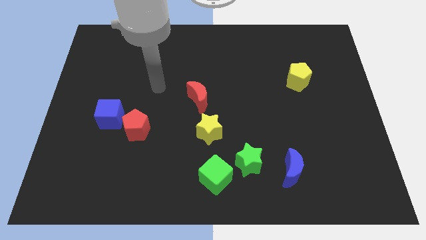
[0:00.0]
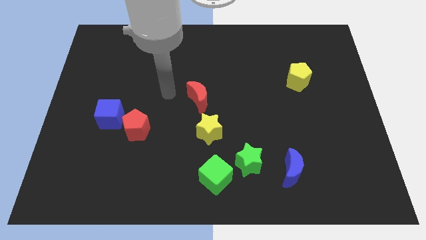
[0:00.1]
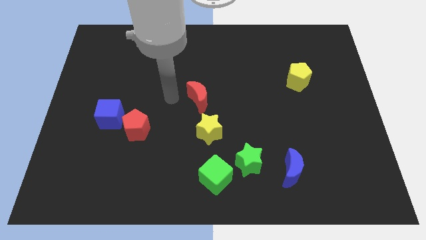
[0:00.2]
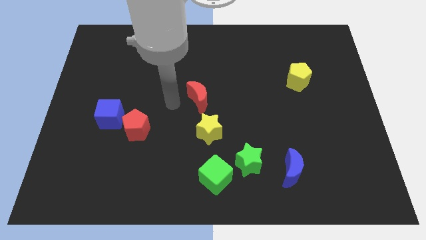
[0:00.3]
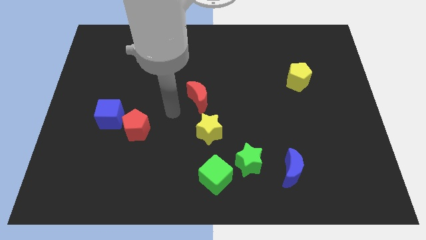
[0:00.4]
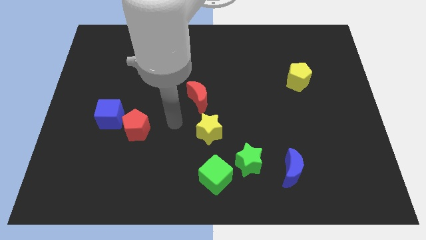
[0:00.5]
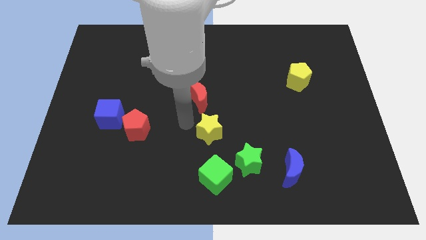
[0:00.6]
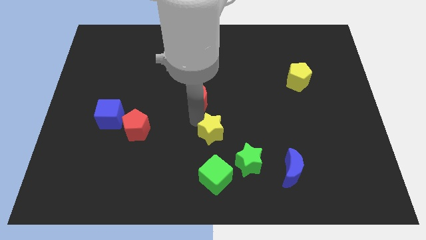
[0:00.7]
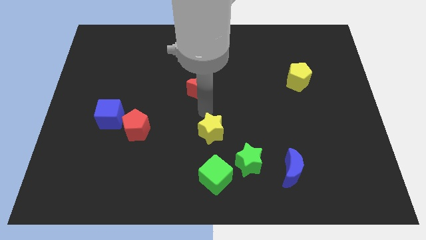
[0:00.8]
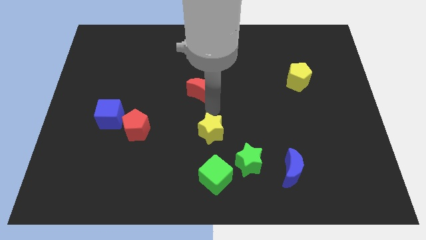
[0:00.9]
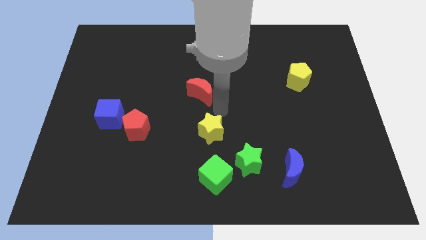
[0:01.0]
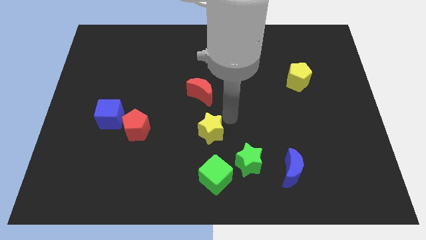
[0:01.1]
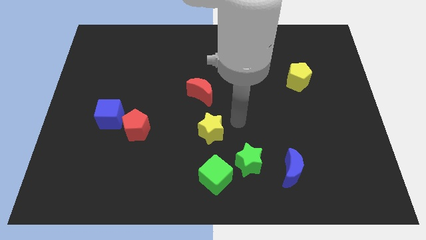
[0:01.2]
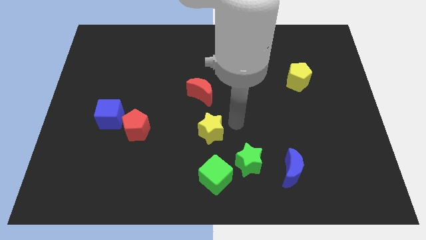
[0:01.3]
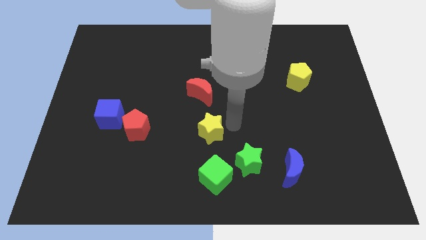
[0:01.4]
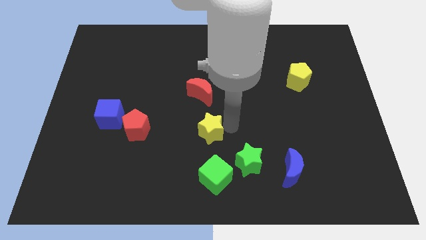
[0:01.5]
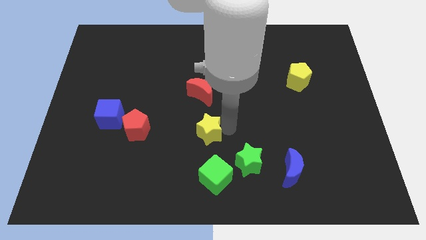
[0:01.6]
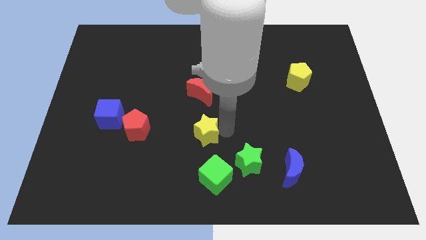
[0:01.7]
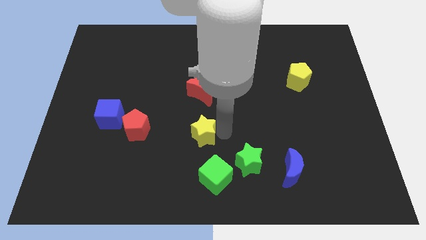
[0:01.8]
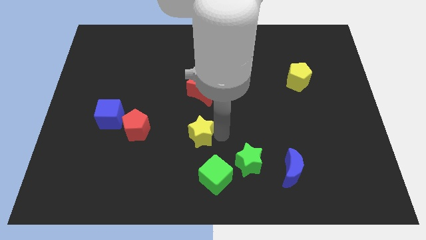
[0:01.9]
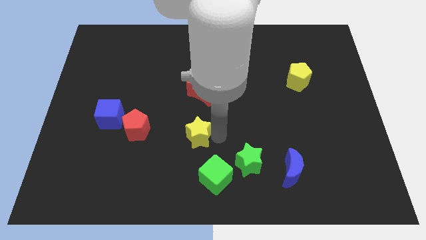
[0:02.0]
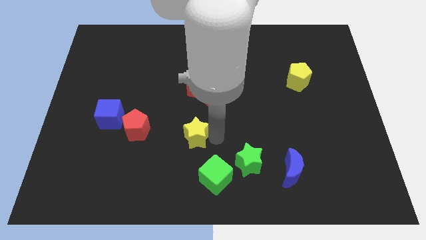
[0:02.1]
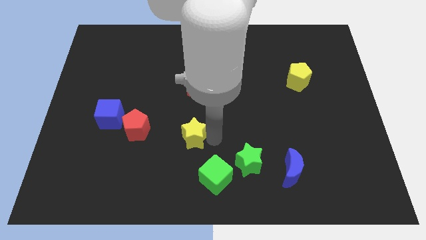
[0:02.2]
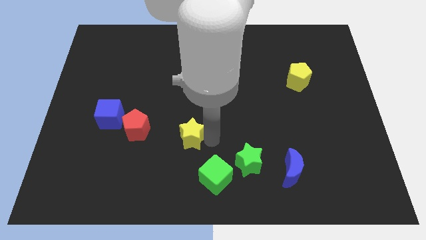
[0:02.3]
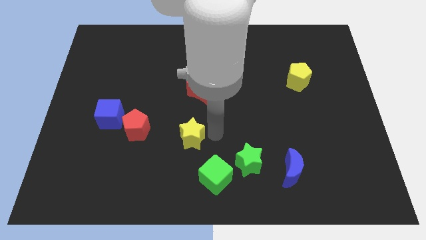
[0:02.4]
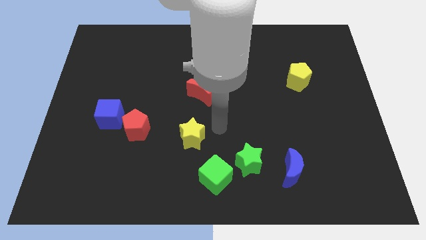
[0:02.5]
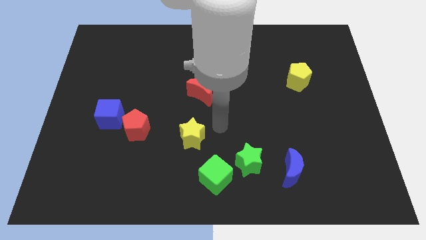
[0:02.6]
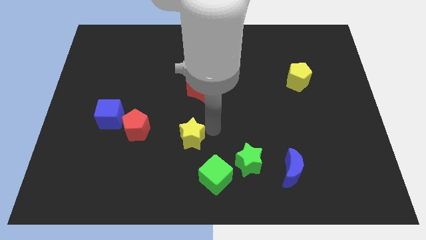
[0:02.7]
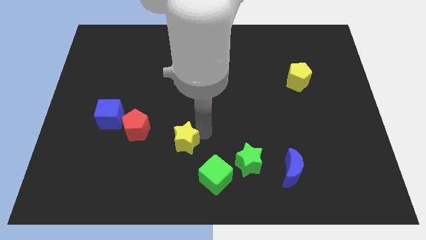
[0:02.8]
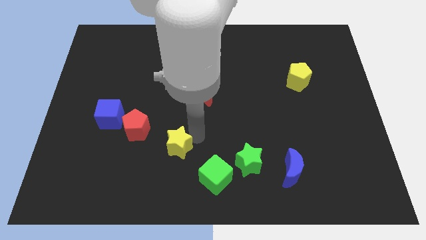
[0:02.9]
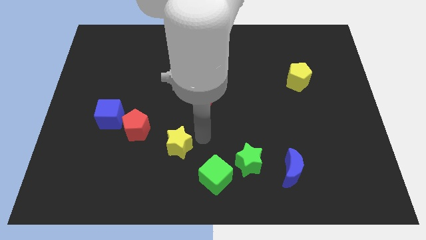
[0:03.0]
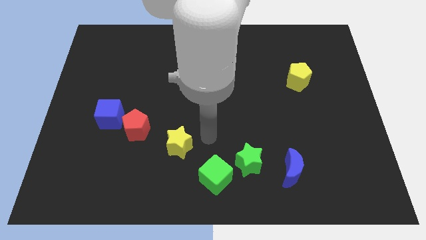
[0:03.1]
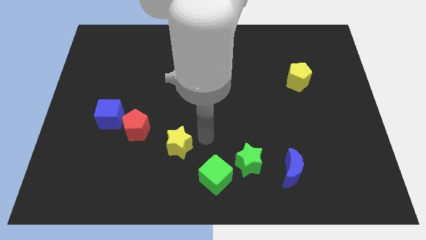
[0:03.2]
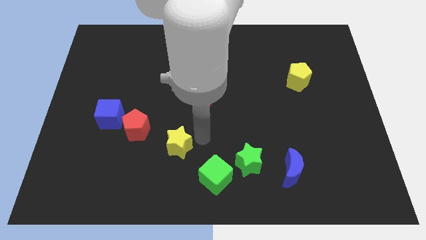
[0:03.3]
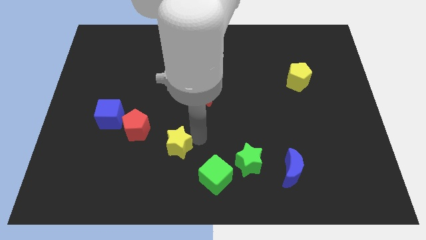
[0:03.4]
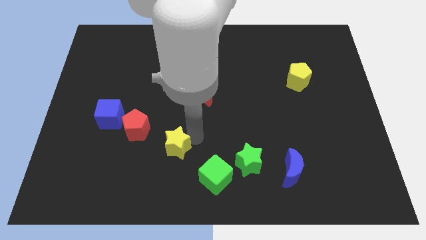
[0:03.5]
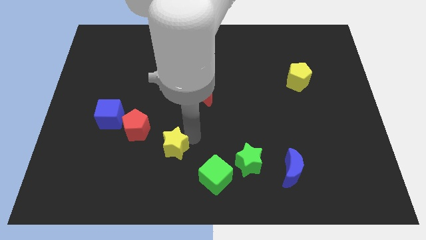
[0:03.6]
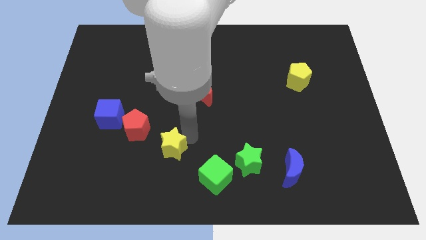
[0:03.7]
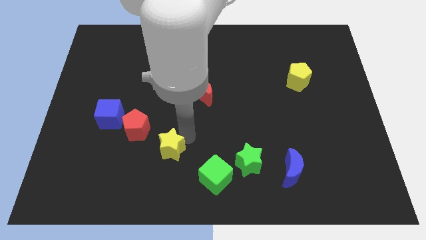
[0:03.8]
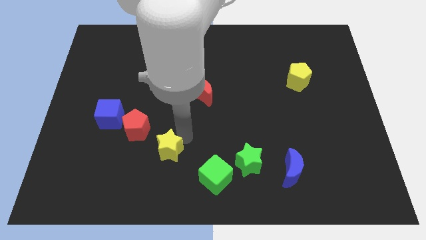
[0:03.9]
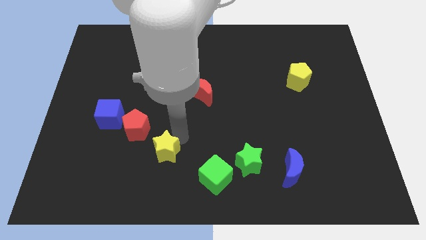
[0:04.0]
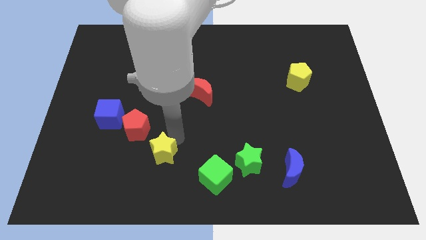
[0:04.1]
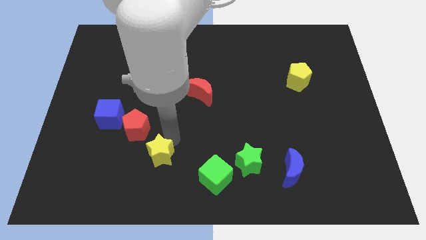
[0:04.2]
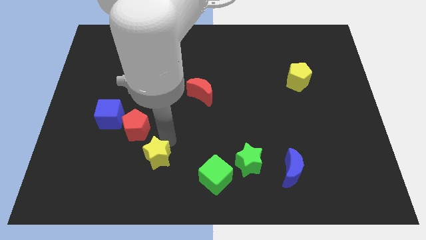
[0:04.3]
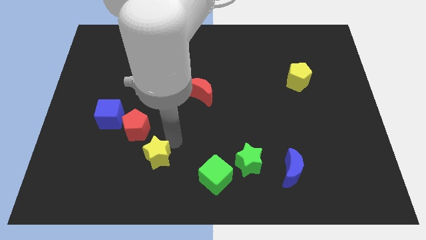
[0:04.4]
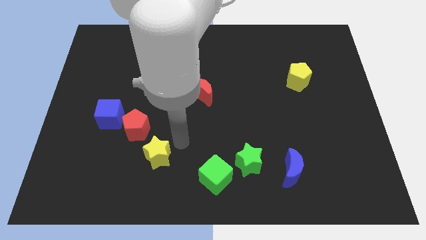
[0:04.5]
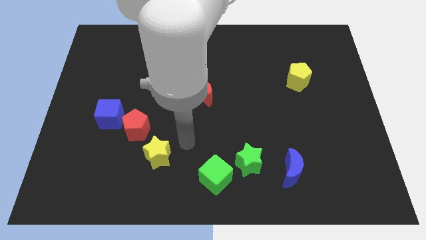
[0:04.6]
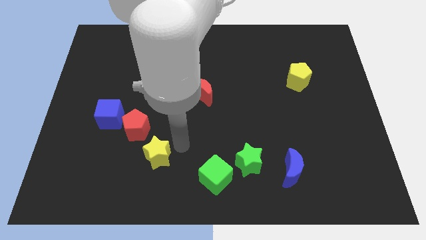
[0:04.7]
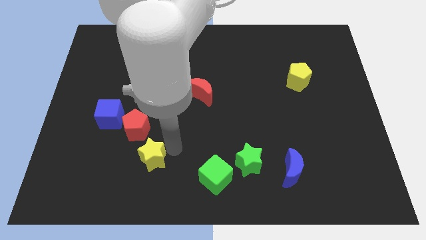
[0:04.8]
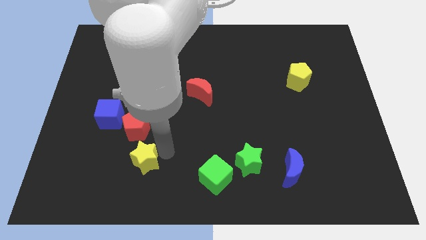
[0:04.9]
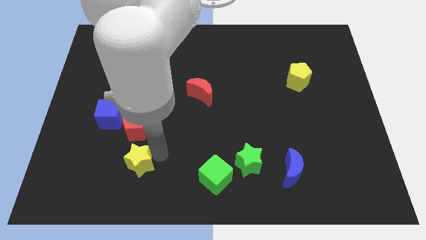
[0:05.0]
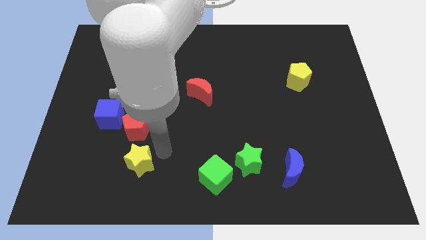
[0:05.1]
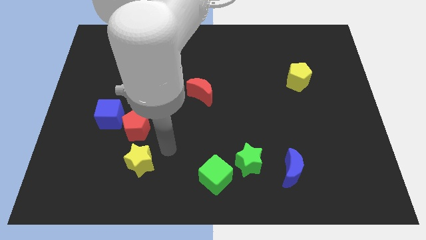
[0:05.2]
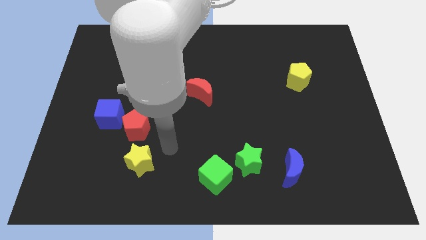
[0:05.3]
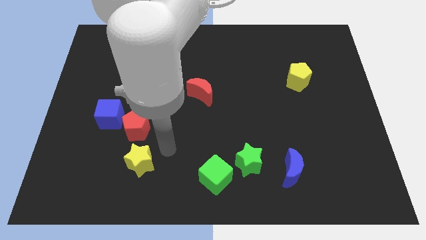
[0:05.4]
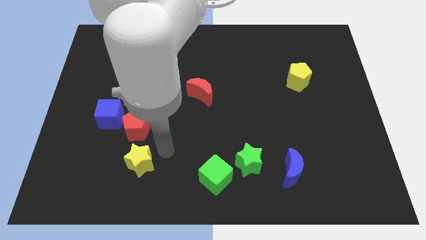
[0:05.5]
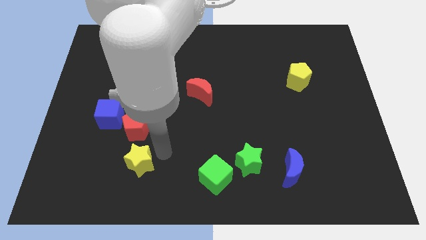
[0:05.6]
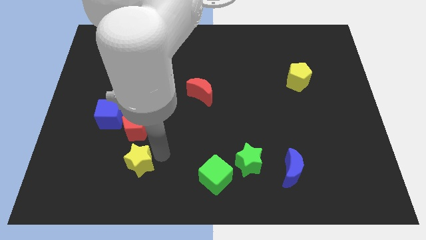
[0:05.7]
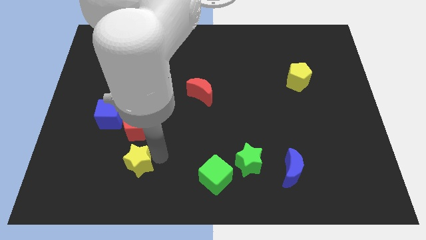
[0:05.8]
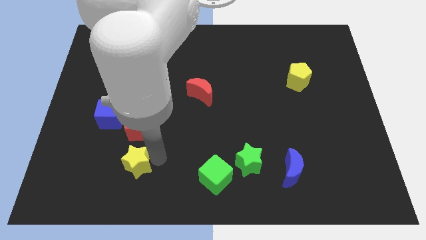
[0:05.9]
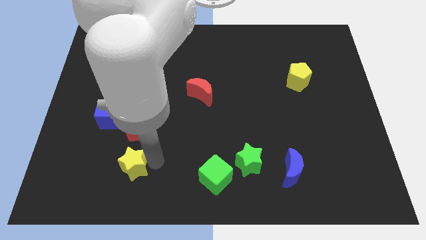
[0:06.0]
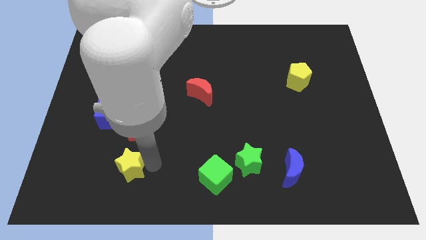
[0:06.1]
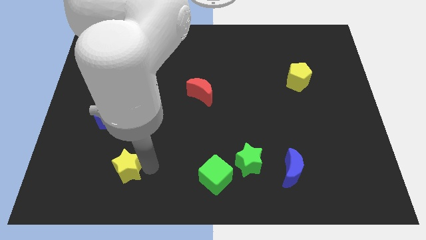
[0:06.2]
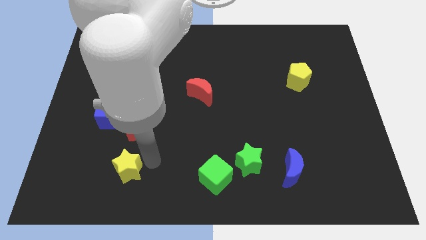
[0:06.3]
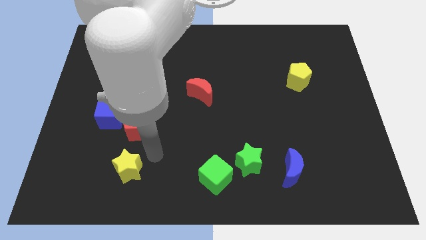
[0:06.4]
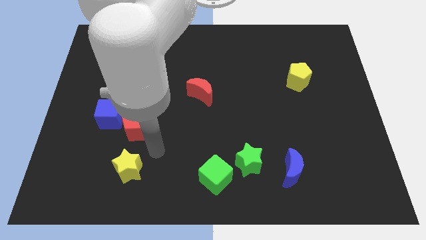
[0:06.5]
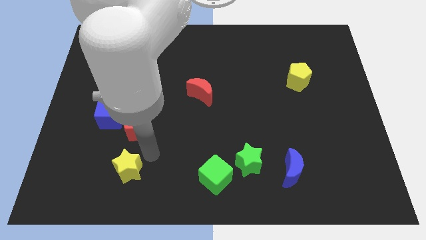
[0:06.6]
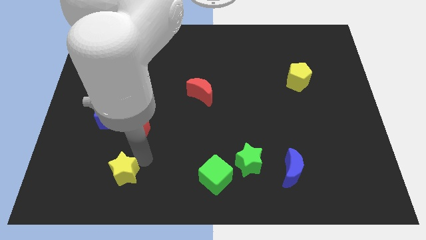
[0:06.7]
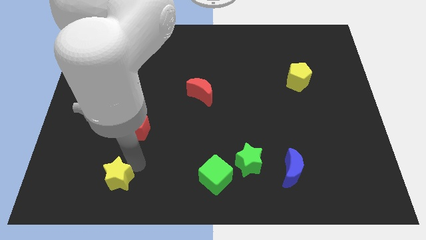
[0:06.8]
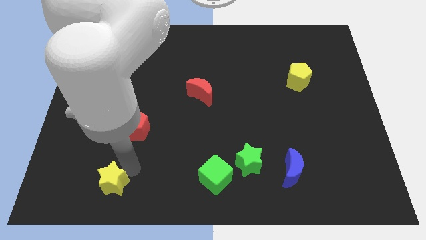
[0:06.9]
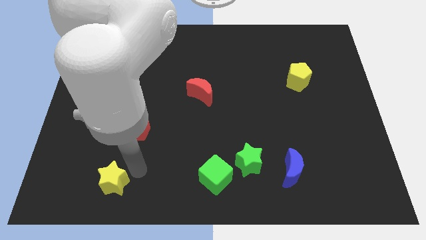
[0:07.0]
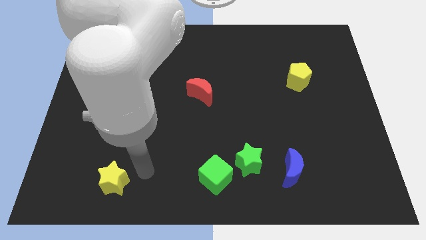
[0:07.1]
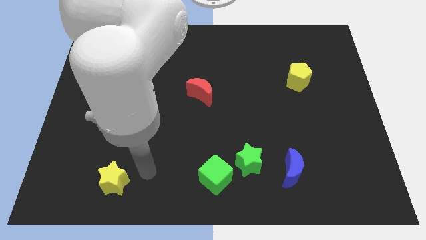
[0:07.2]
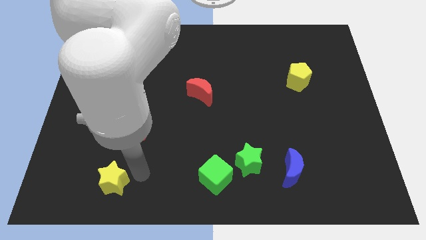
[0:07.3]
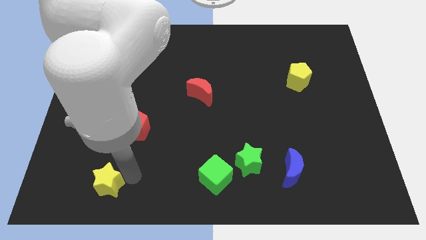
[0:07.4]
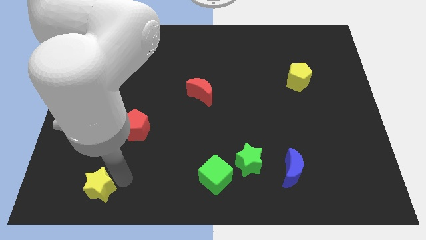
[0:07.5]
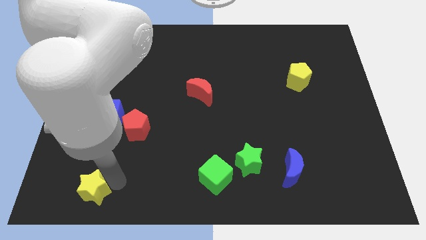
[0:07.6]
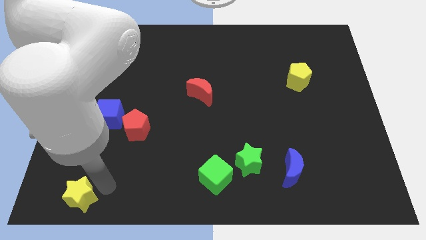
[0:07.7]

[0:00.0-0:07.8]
push the yellow star to the bottom left corner
